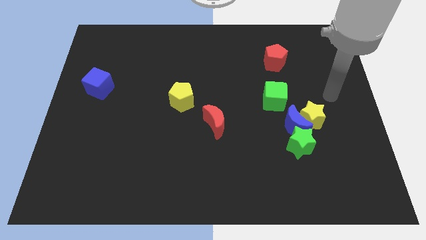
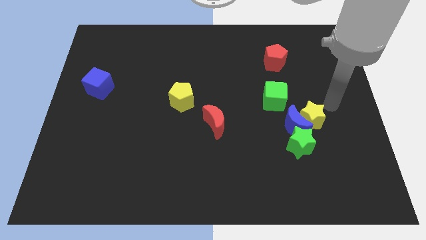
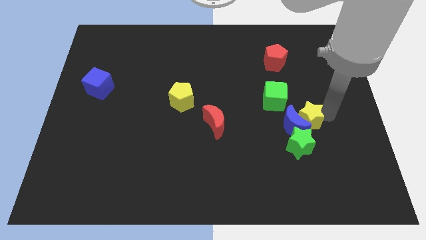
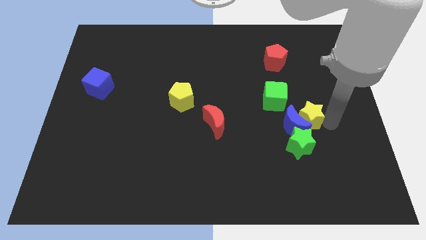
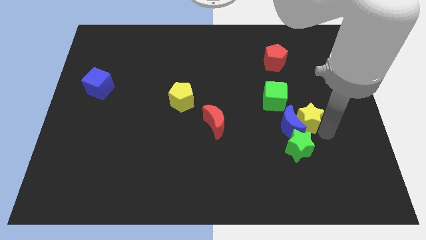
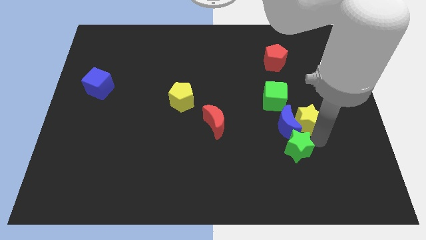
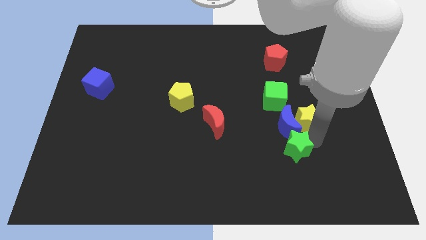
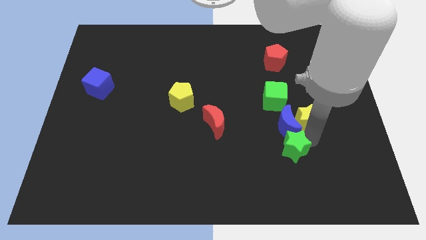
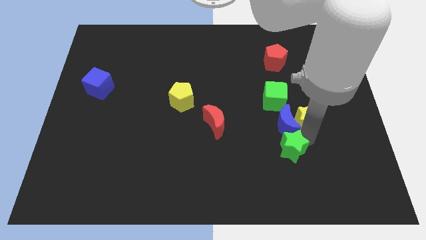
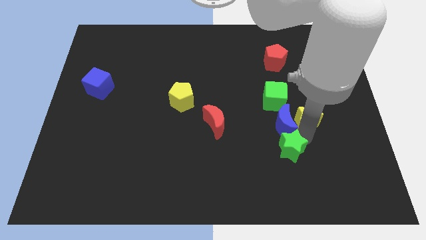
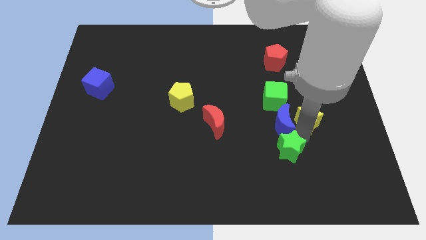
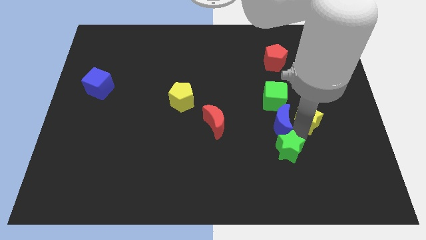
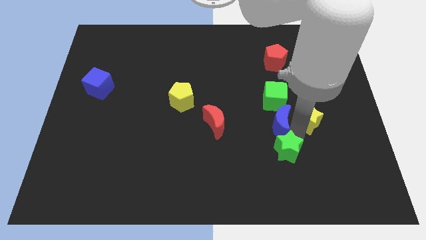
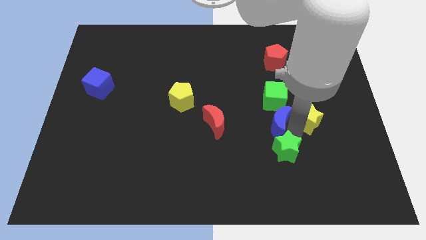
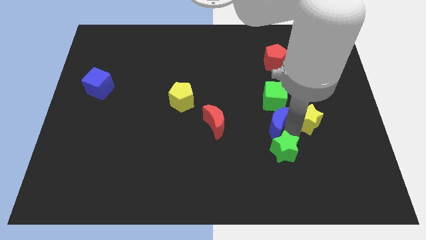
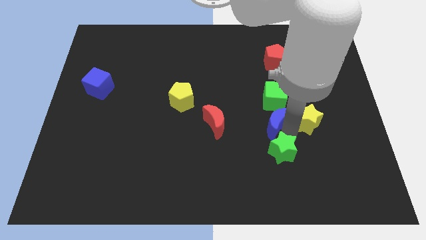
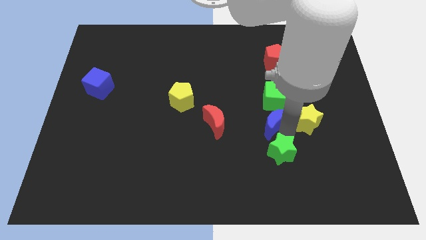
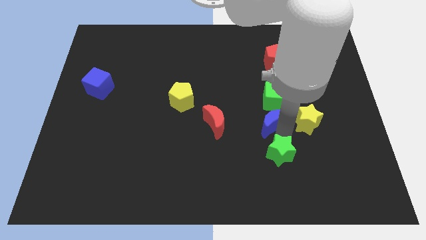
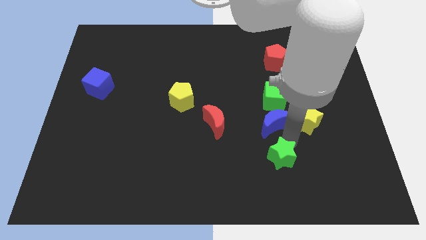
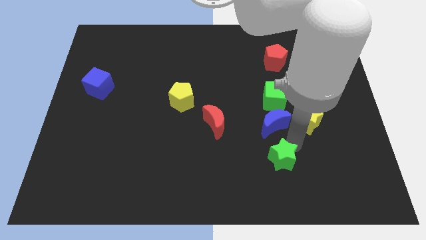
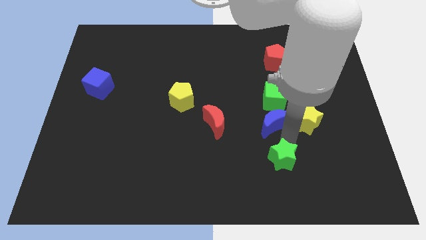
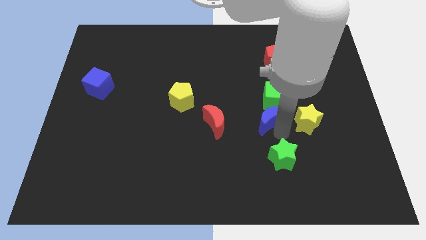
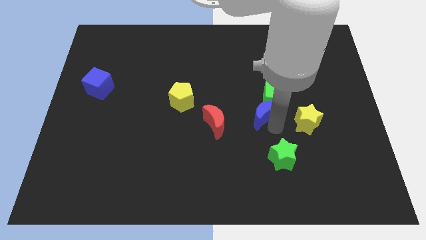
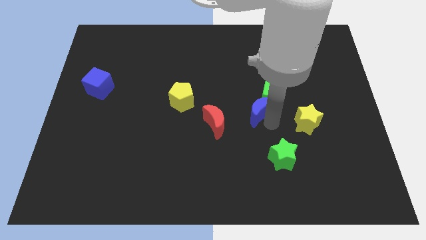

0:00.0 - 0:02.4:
slide the blue moon a little upwards and left diagonally

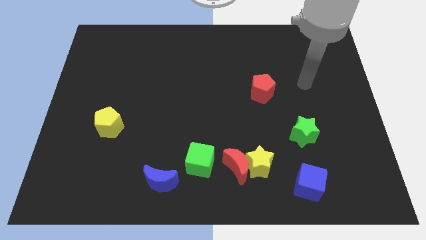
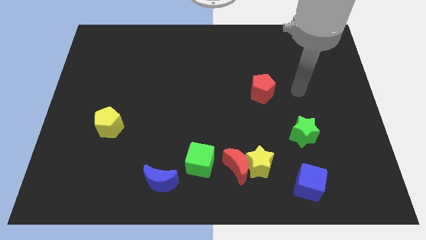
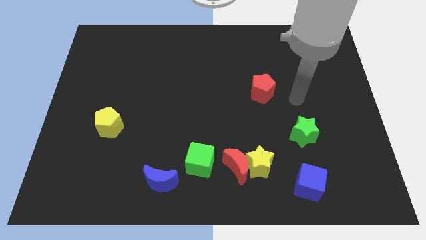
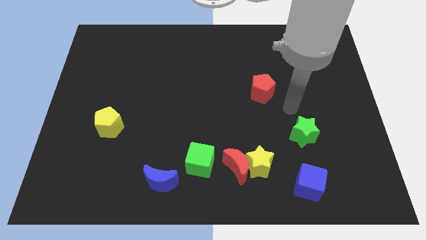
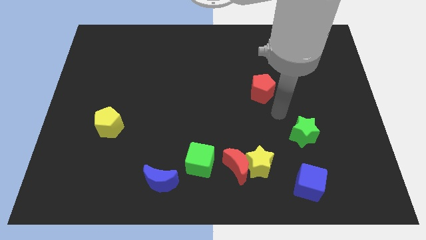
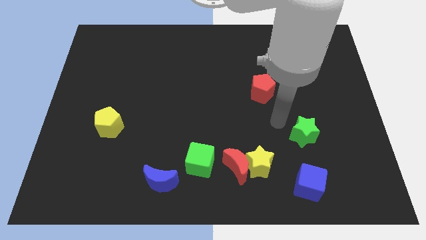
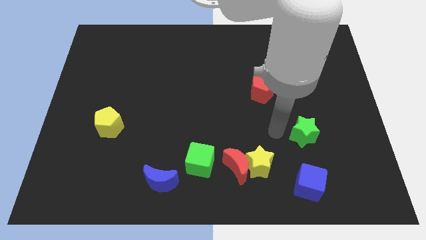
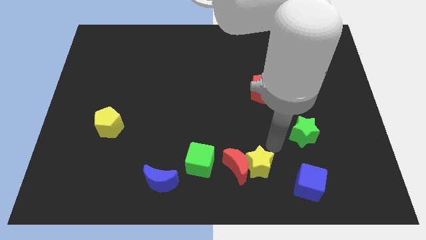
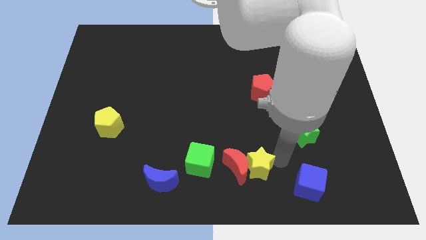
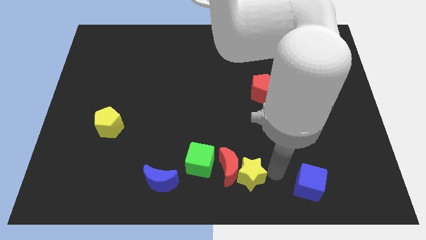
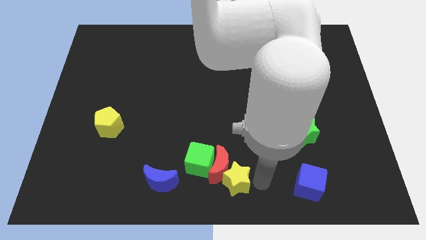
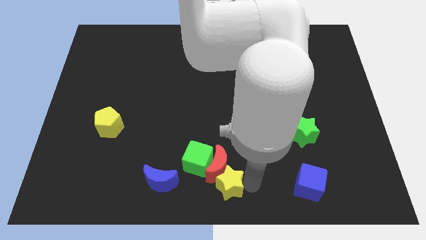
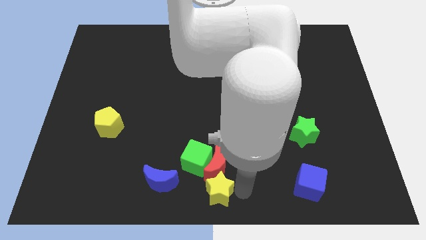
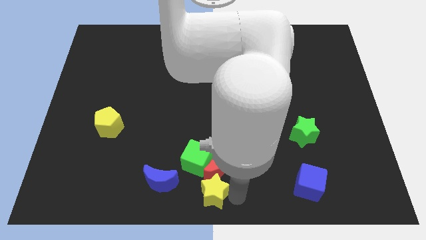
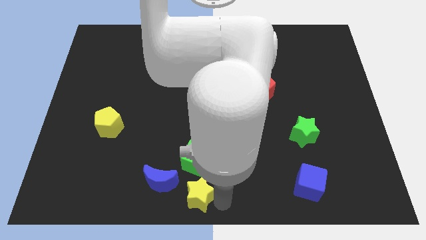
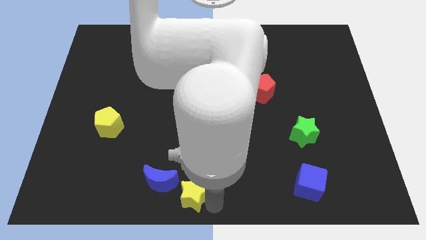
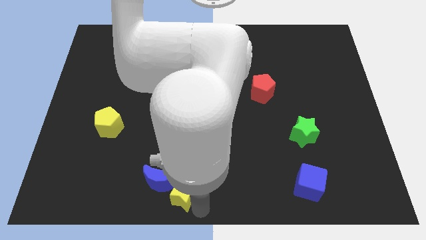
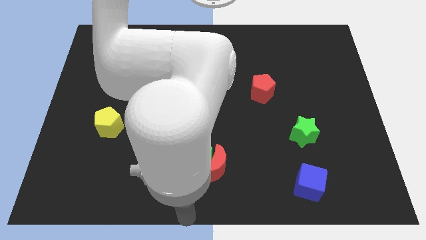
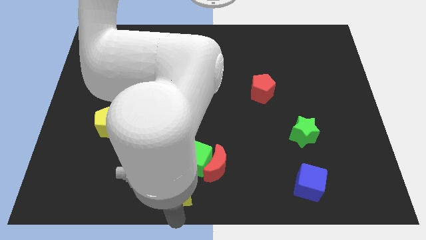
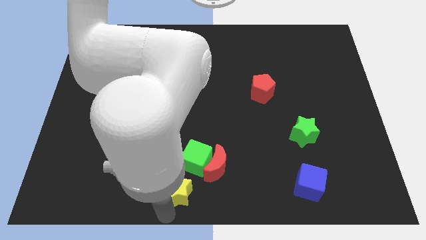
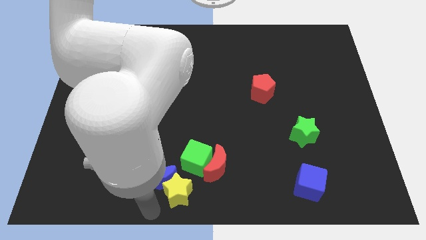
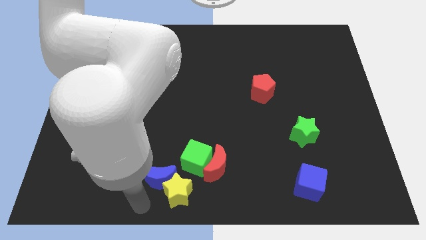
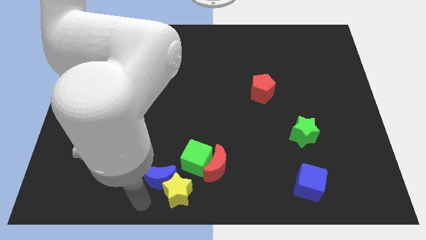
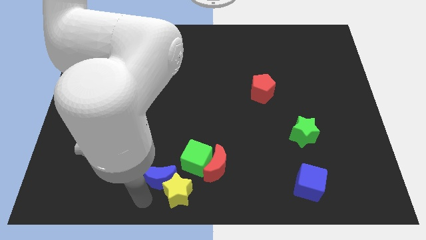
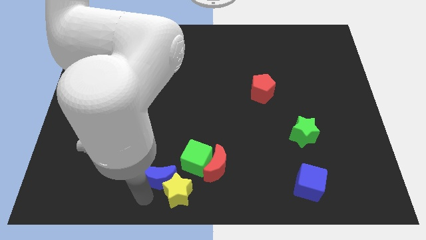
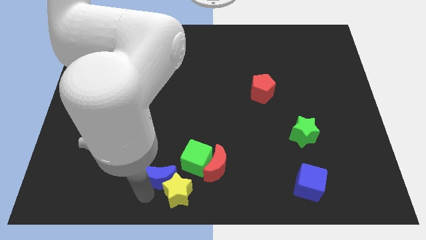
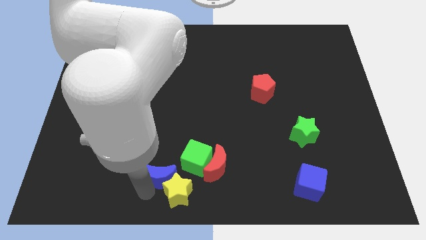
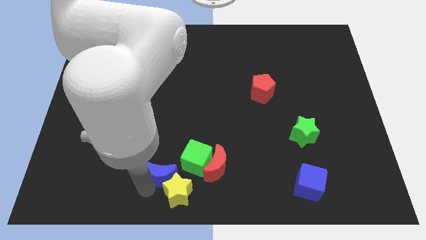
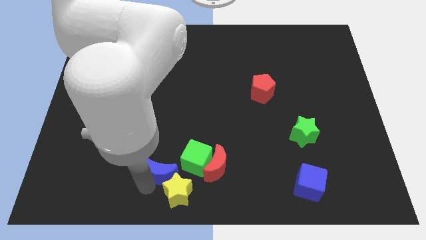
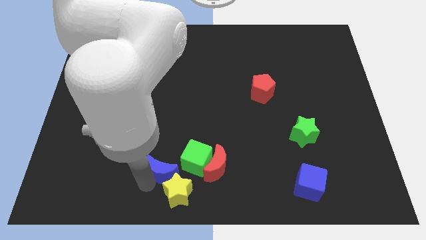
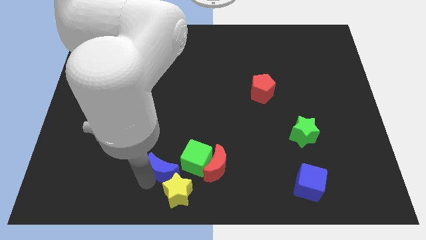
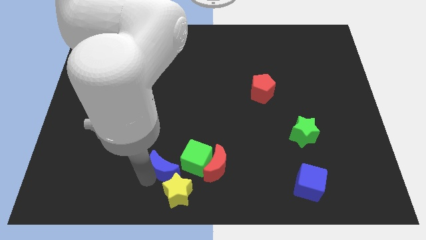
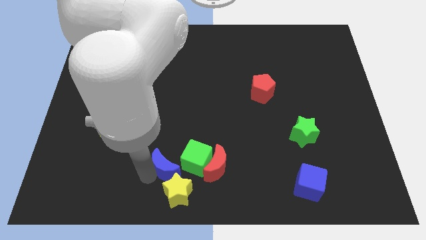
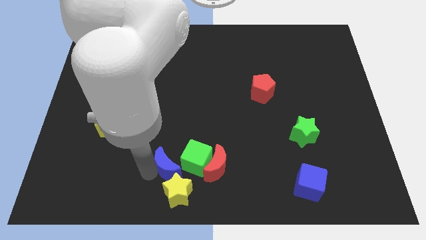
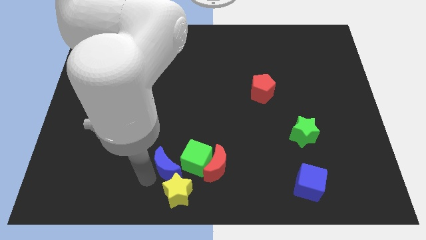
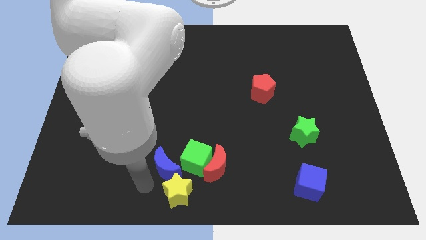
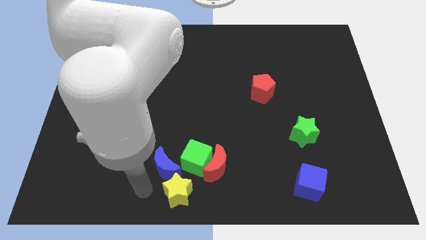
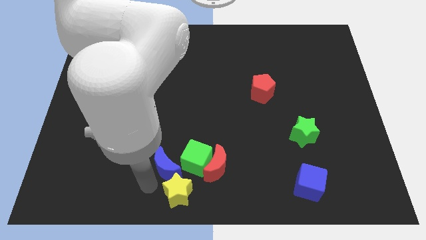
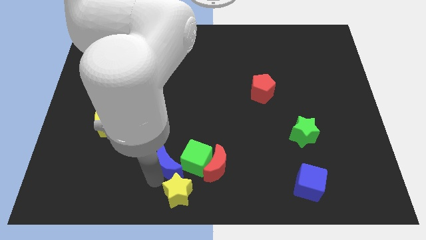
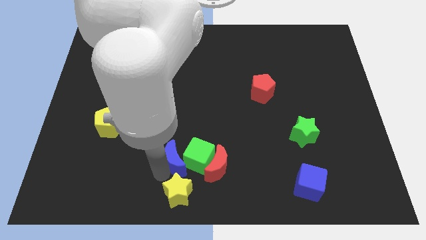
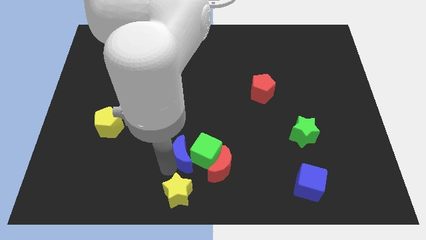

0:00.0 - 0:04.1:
move the blue moon slightly upwards and to the right

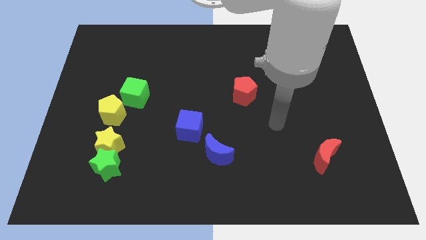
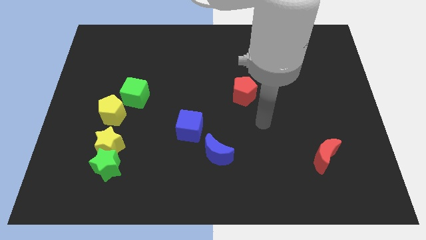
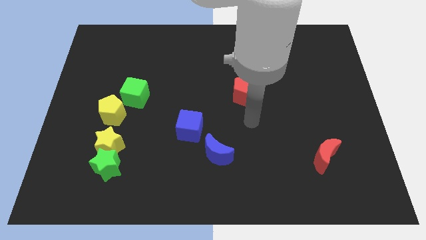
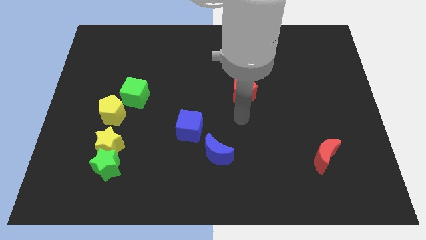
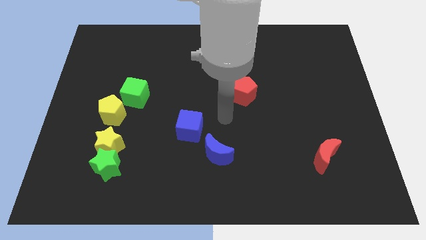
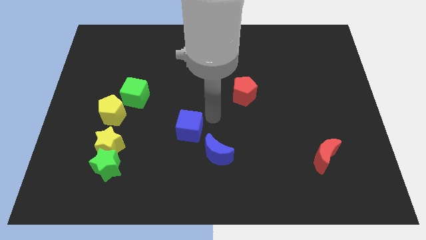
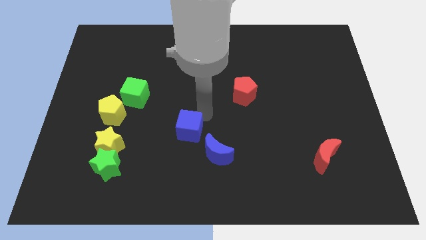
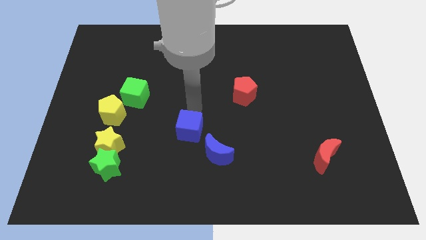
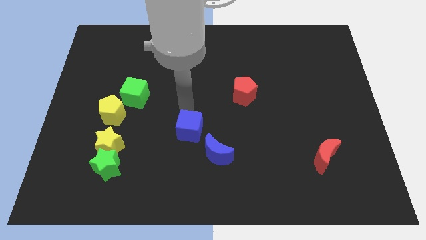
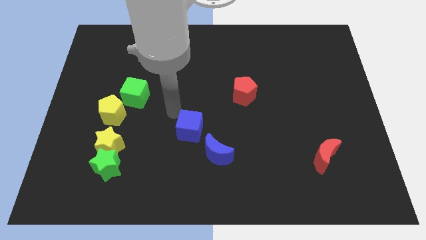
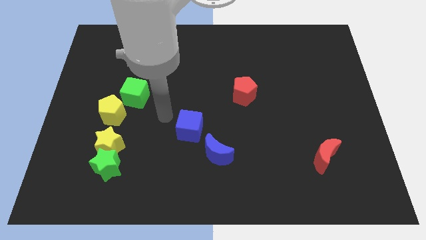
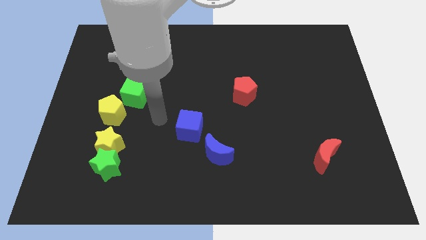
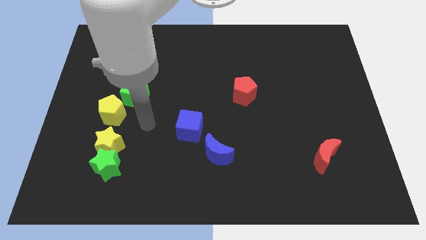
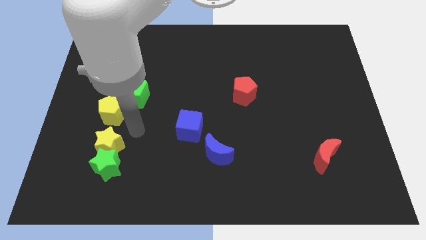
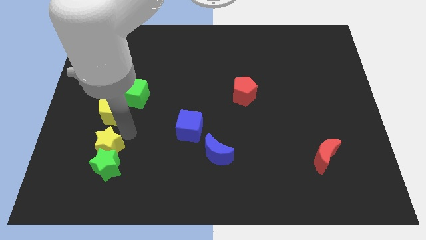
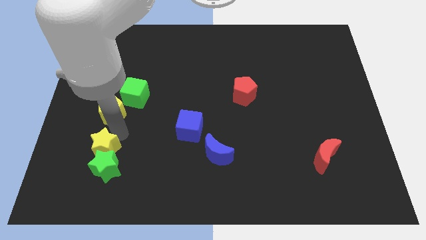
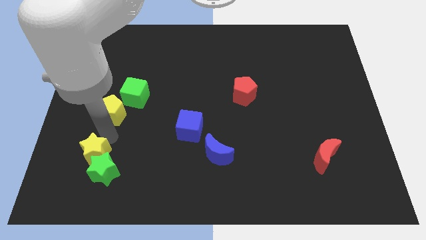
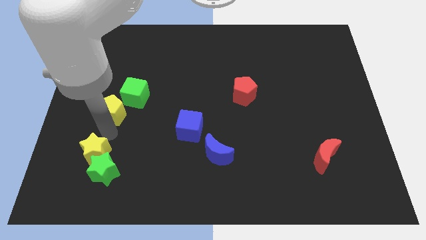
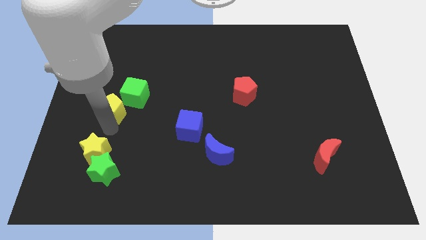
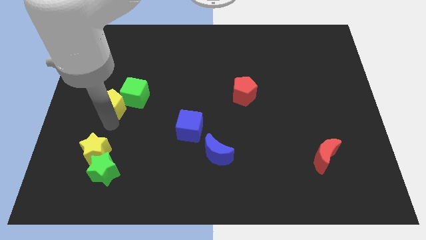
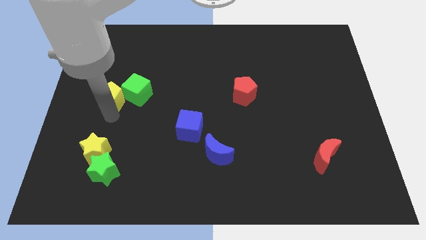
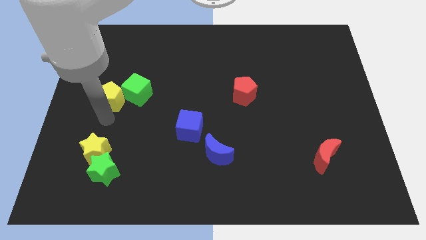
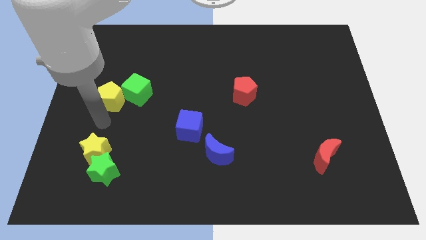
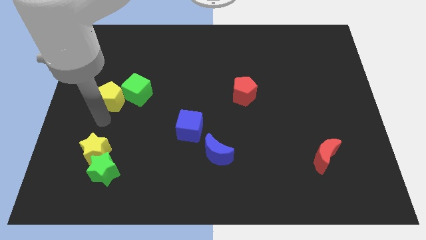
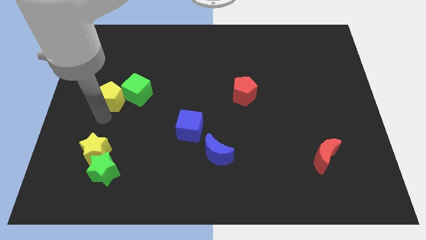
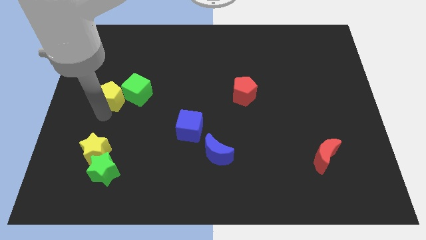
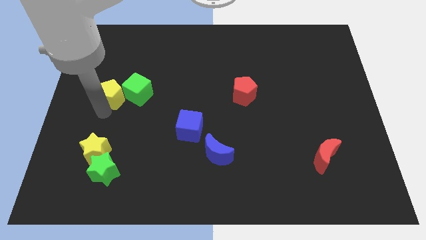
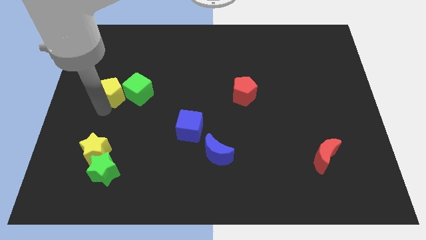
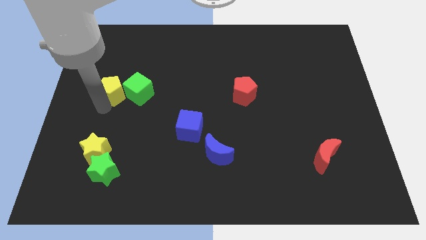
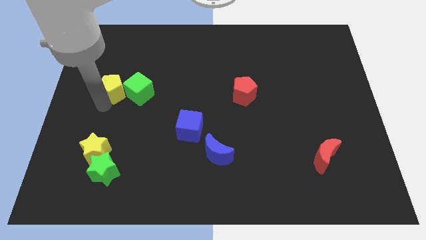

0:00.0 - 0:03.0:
move the yellow pentagon a bit upwards
